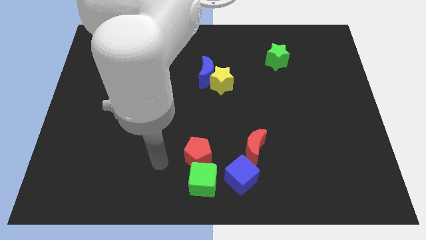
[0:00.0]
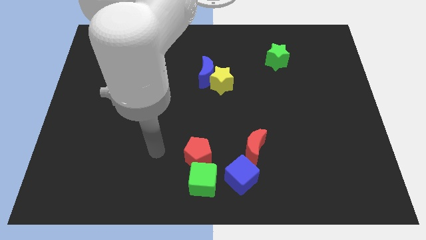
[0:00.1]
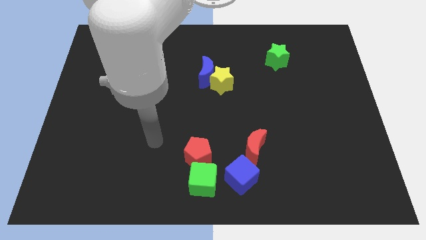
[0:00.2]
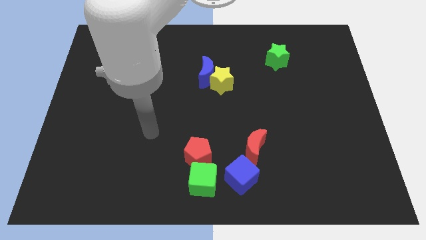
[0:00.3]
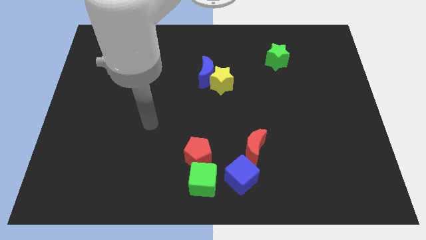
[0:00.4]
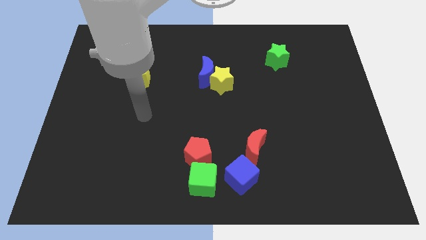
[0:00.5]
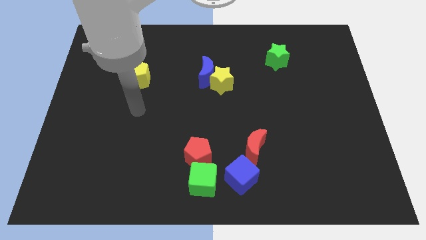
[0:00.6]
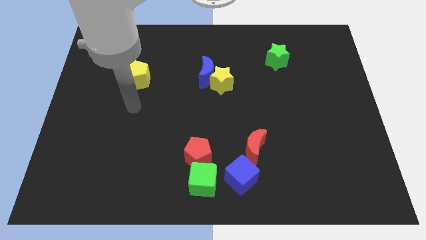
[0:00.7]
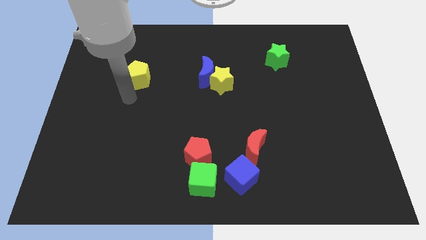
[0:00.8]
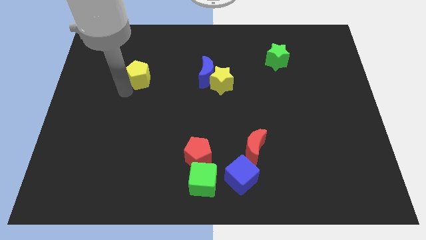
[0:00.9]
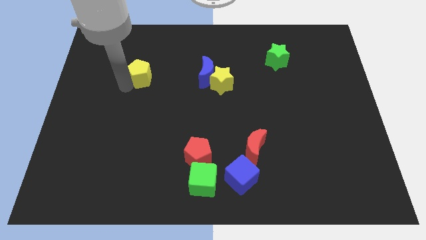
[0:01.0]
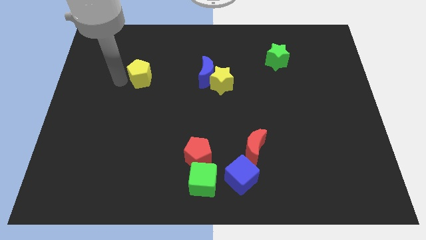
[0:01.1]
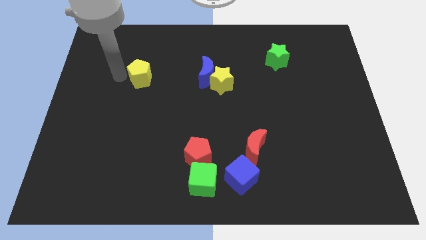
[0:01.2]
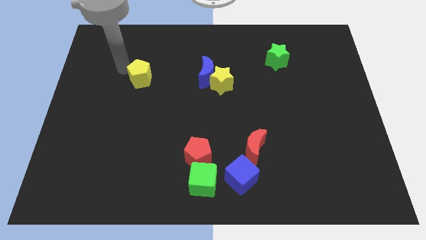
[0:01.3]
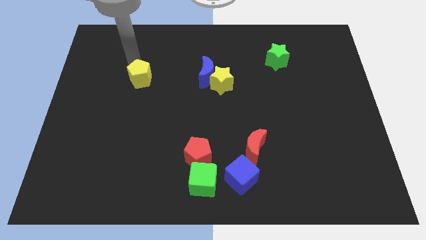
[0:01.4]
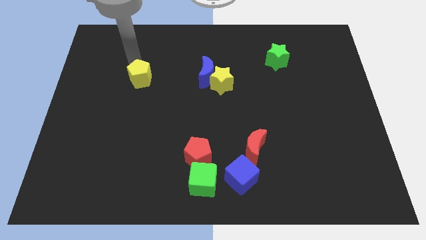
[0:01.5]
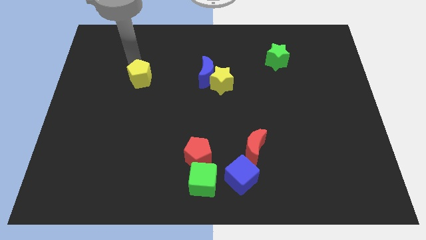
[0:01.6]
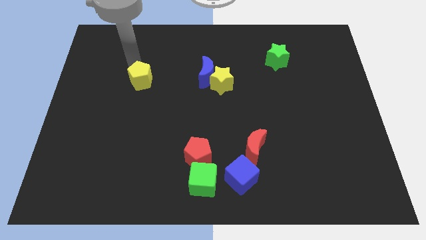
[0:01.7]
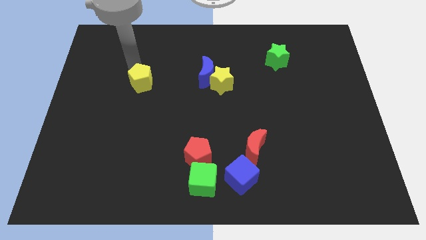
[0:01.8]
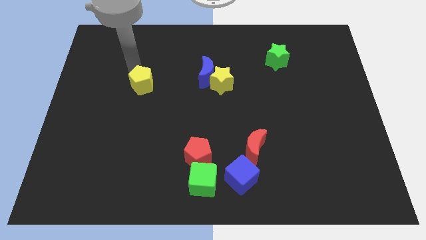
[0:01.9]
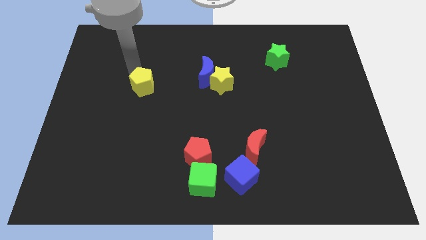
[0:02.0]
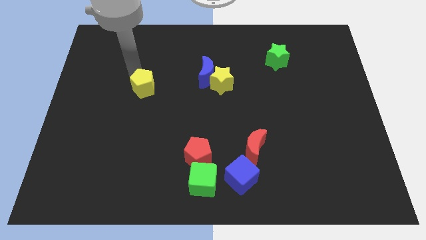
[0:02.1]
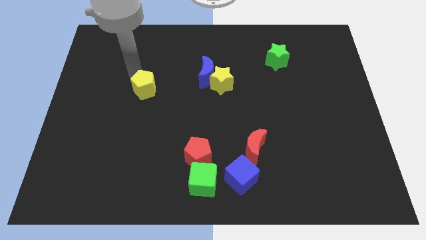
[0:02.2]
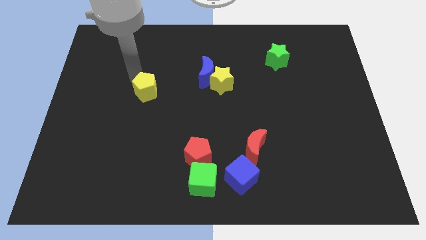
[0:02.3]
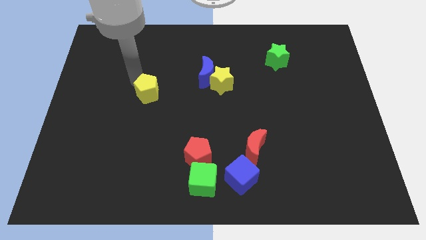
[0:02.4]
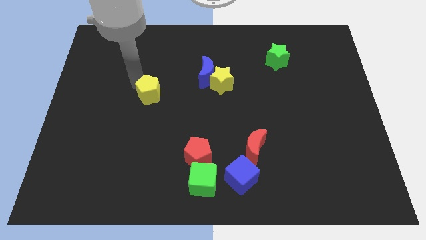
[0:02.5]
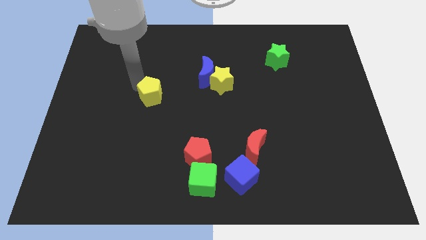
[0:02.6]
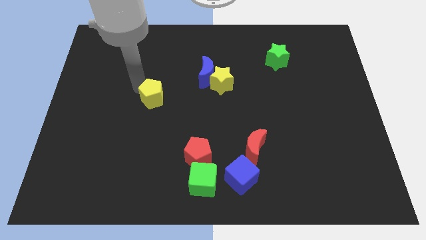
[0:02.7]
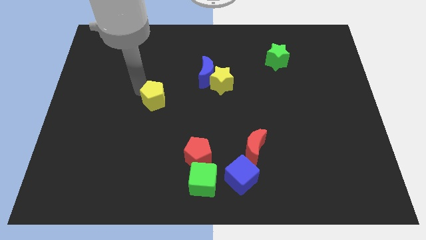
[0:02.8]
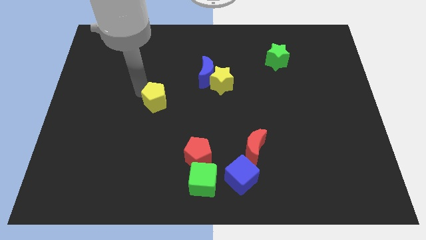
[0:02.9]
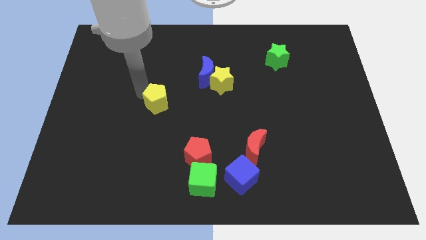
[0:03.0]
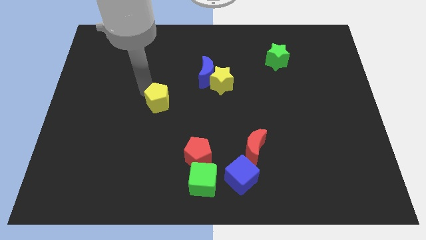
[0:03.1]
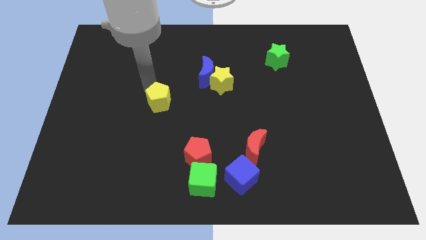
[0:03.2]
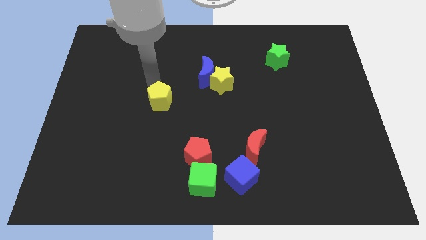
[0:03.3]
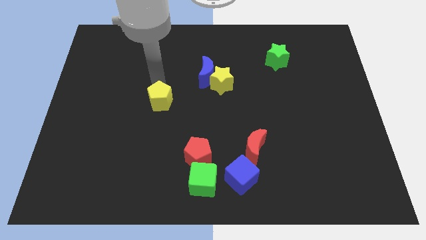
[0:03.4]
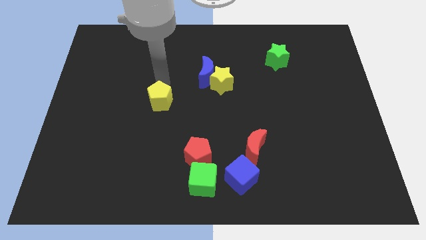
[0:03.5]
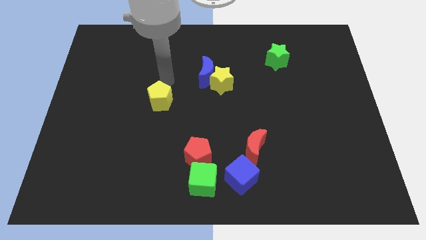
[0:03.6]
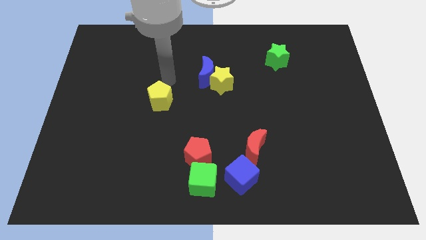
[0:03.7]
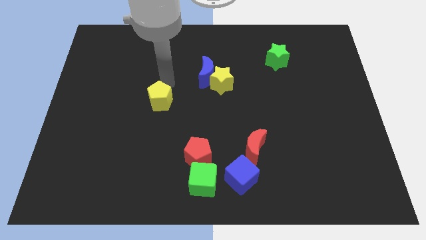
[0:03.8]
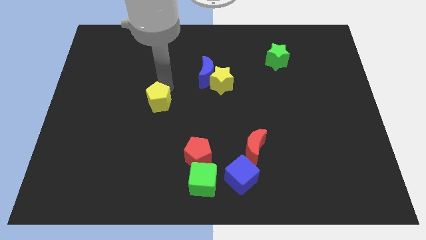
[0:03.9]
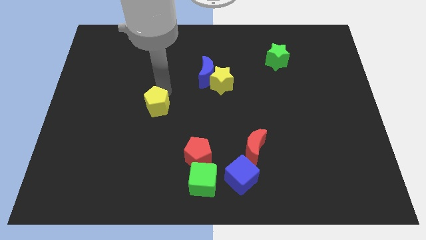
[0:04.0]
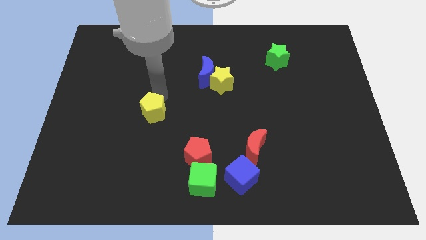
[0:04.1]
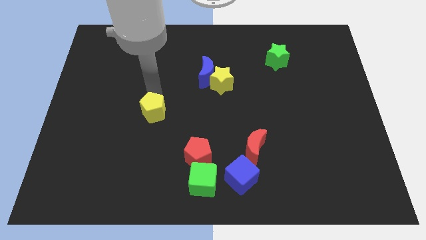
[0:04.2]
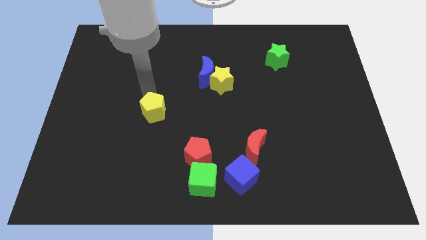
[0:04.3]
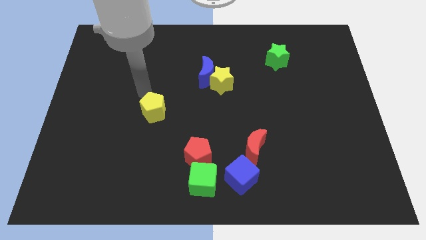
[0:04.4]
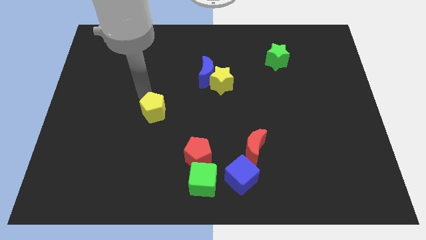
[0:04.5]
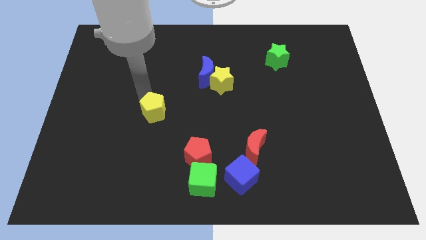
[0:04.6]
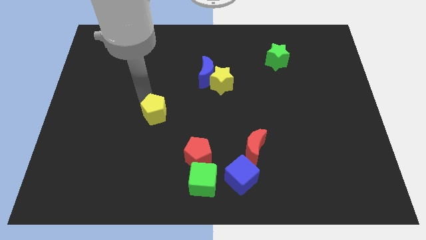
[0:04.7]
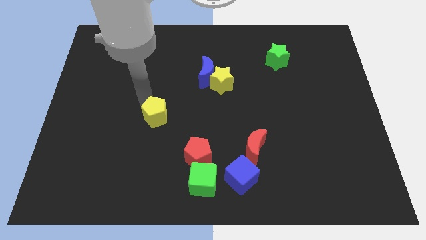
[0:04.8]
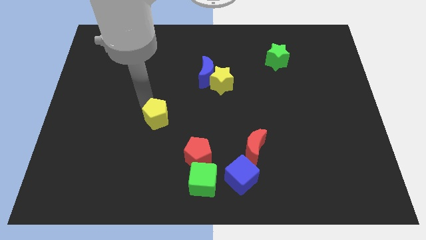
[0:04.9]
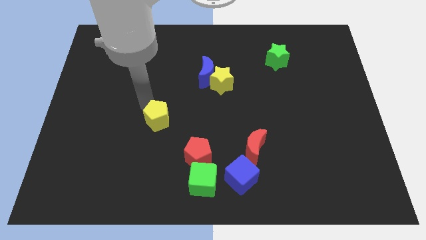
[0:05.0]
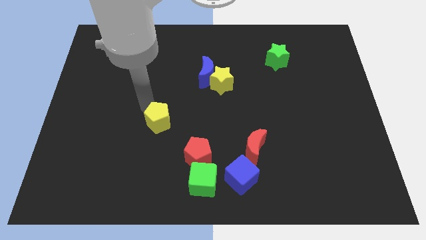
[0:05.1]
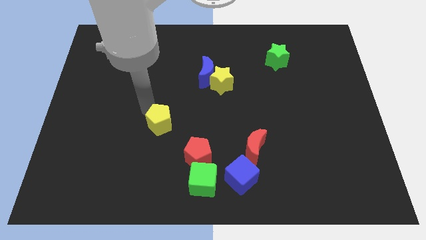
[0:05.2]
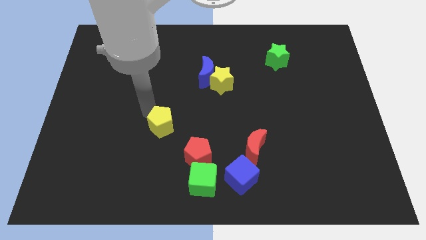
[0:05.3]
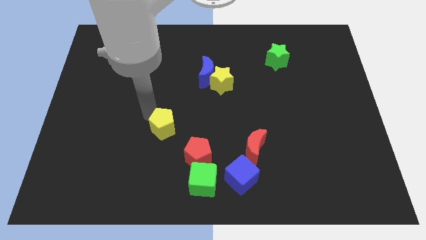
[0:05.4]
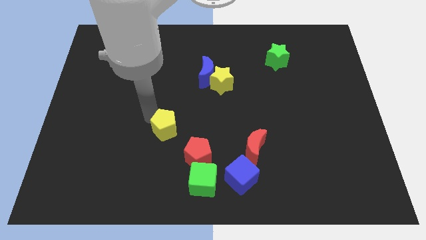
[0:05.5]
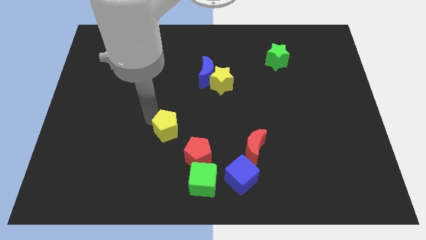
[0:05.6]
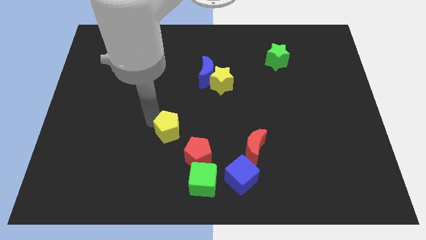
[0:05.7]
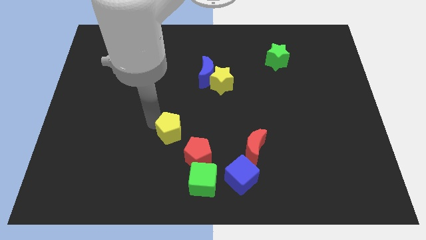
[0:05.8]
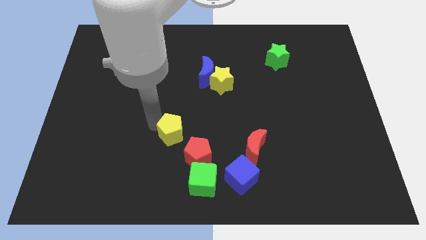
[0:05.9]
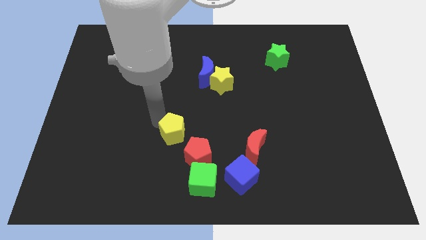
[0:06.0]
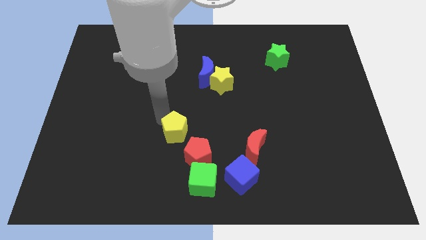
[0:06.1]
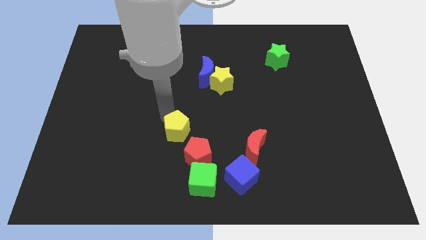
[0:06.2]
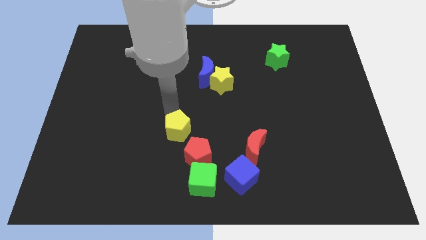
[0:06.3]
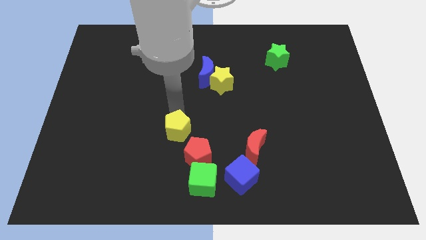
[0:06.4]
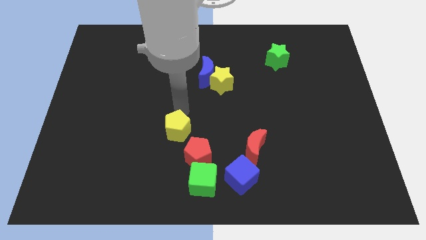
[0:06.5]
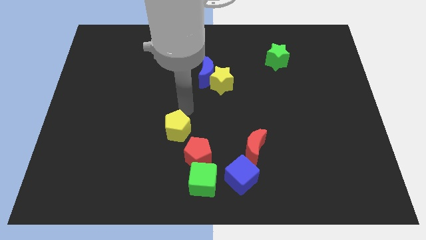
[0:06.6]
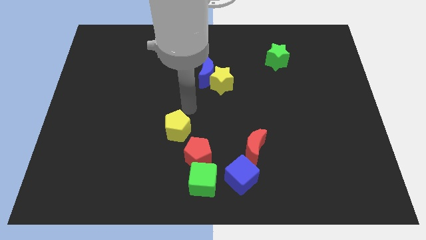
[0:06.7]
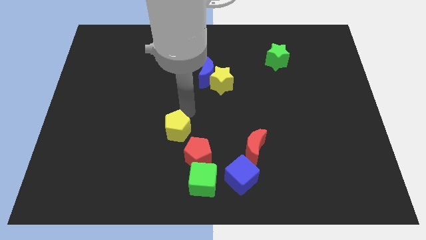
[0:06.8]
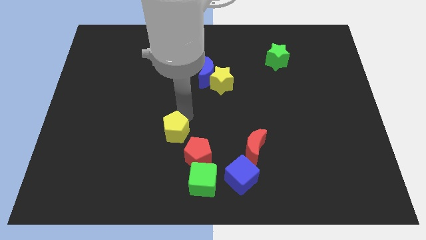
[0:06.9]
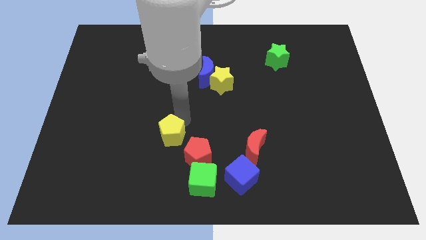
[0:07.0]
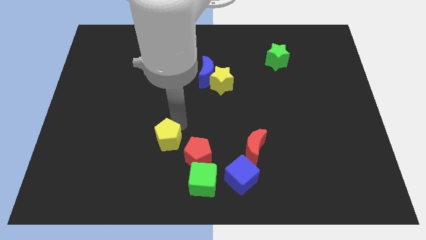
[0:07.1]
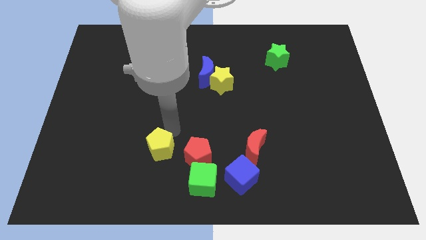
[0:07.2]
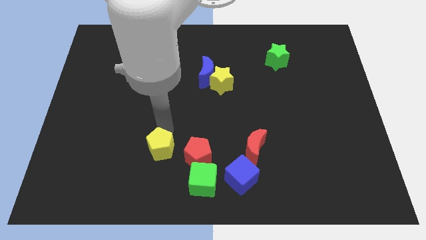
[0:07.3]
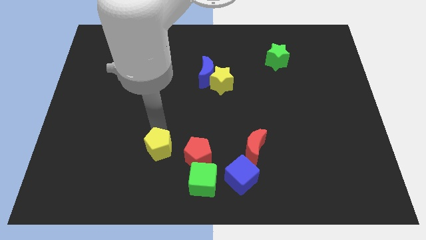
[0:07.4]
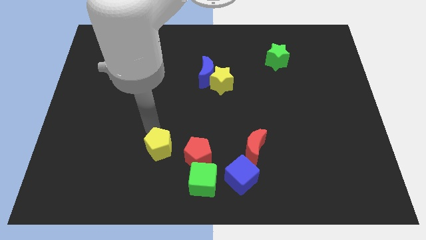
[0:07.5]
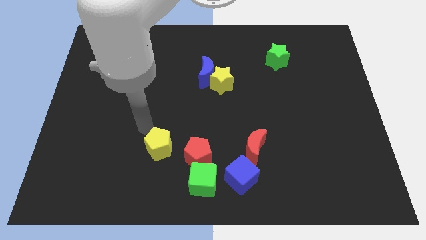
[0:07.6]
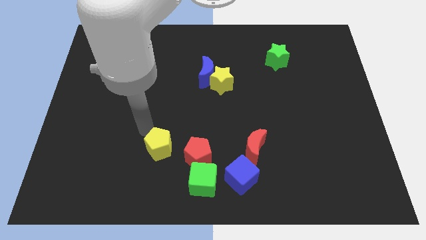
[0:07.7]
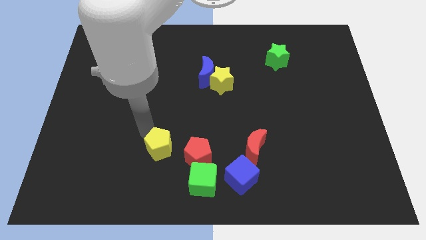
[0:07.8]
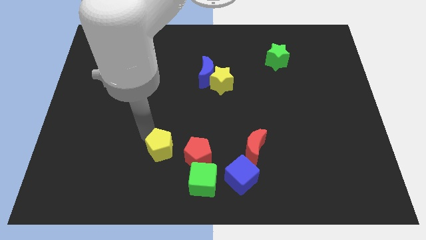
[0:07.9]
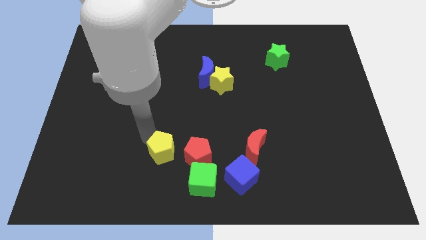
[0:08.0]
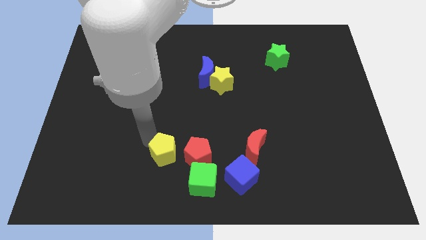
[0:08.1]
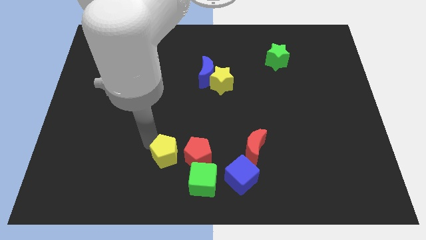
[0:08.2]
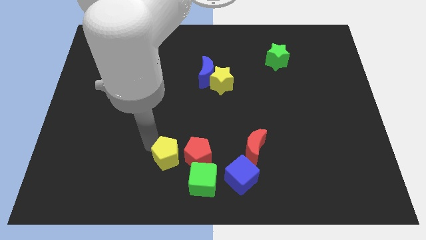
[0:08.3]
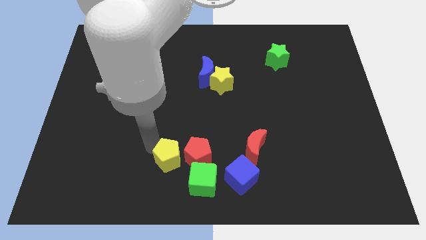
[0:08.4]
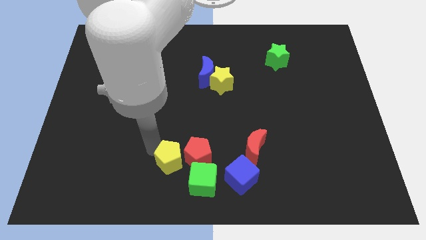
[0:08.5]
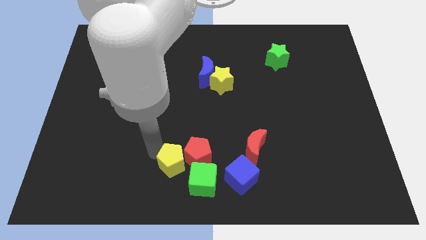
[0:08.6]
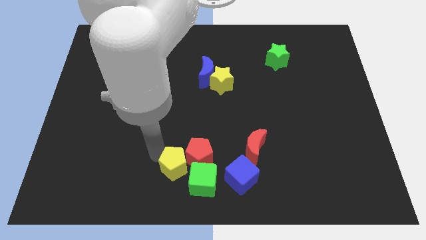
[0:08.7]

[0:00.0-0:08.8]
put the yellow pentagon to the bottom
